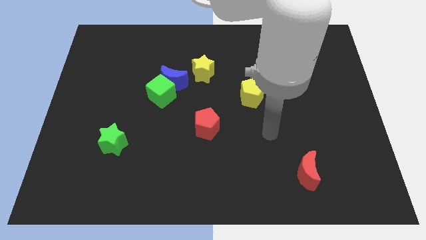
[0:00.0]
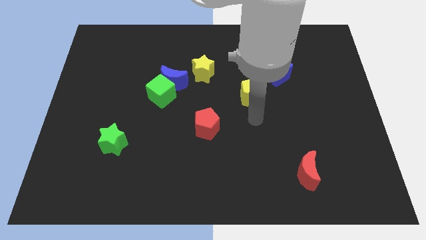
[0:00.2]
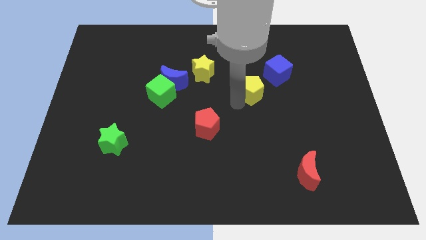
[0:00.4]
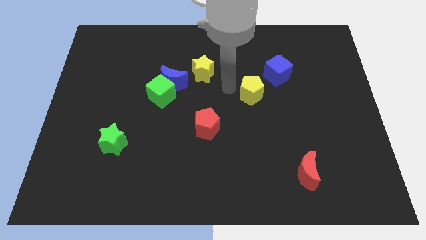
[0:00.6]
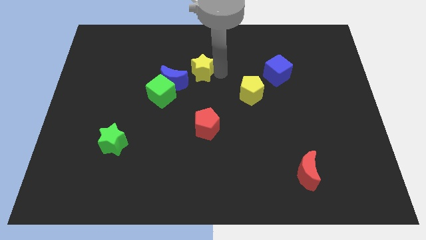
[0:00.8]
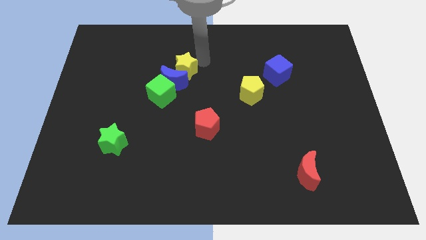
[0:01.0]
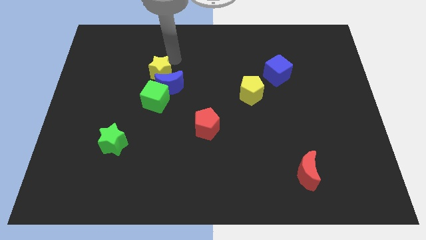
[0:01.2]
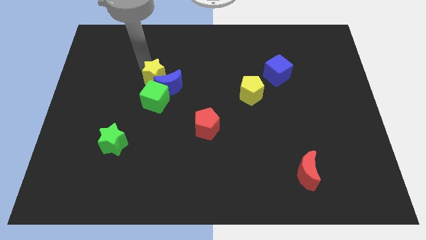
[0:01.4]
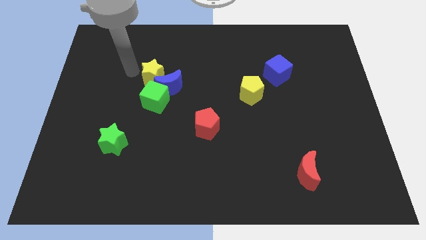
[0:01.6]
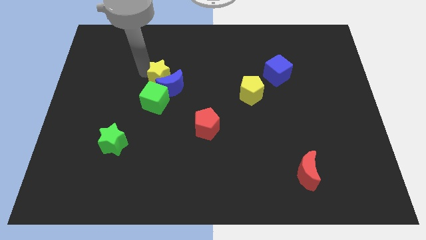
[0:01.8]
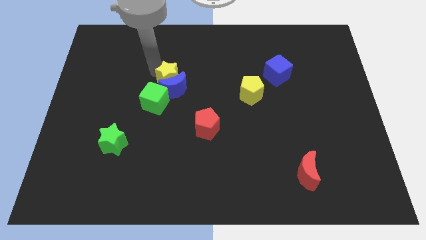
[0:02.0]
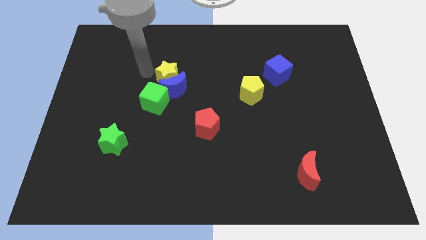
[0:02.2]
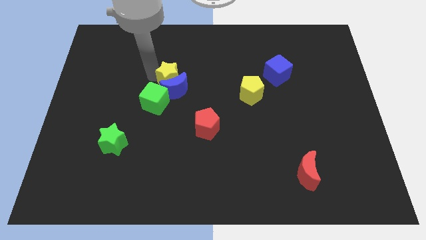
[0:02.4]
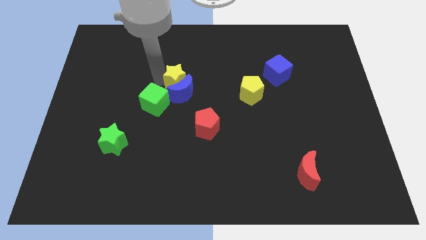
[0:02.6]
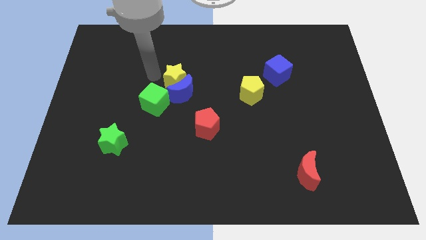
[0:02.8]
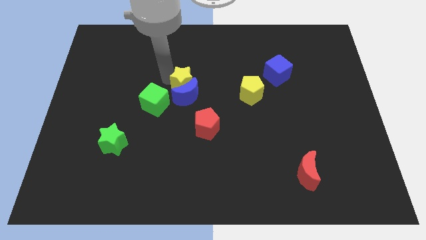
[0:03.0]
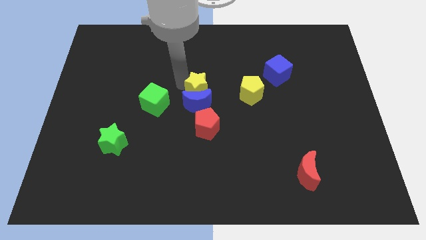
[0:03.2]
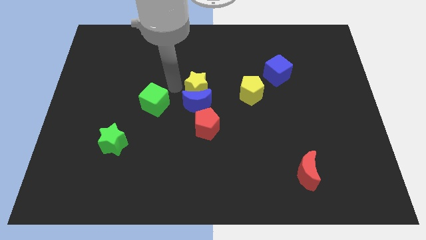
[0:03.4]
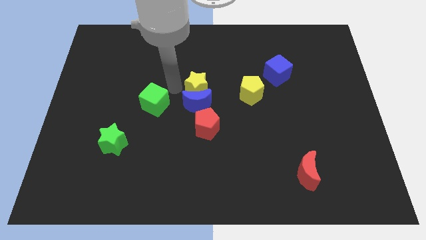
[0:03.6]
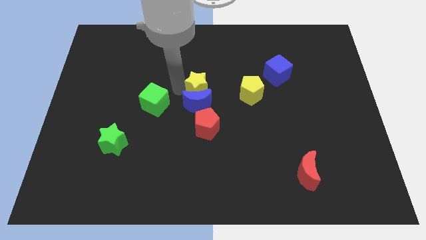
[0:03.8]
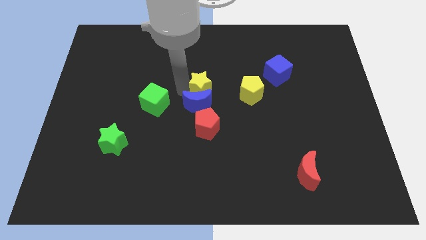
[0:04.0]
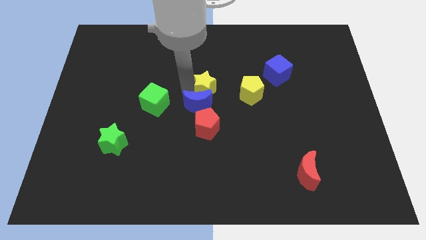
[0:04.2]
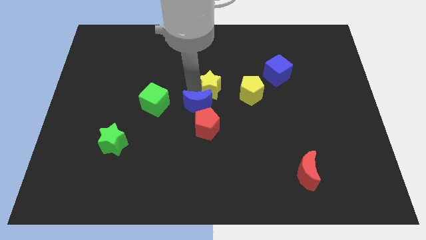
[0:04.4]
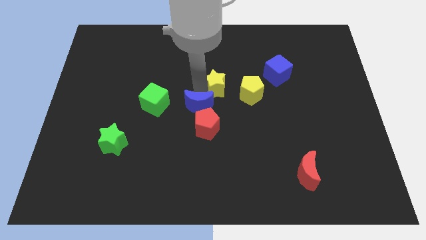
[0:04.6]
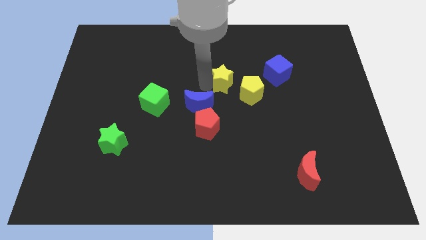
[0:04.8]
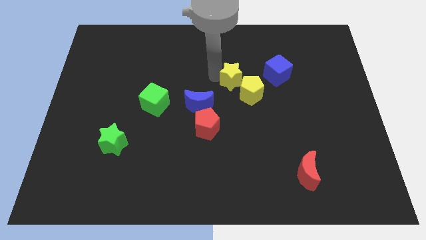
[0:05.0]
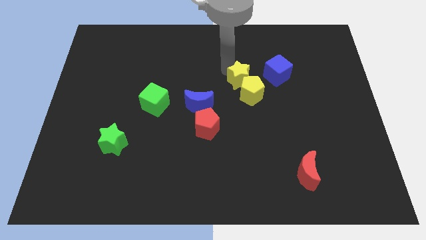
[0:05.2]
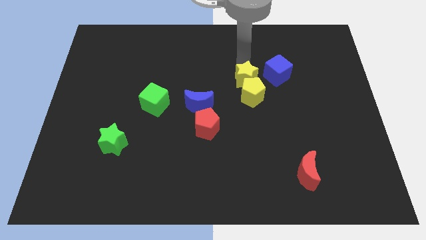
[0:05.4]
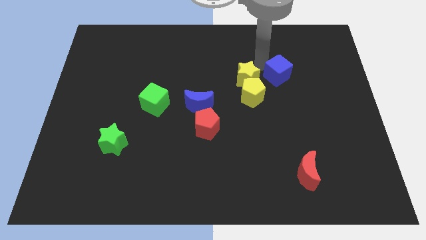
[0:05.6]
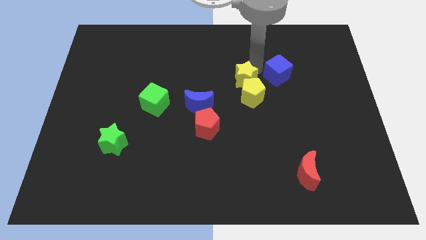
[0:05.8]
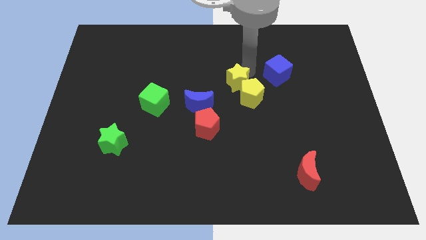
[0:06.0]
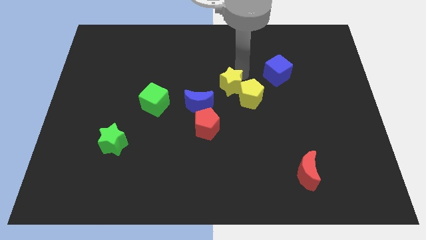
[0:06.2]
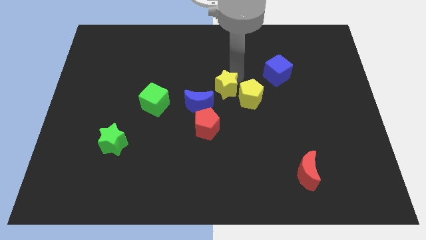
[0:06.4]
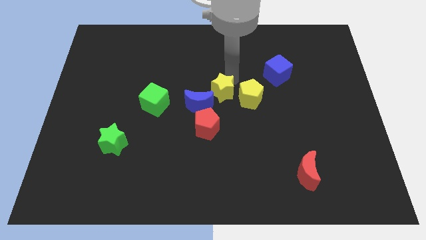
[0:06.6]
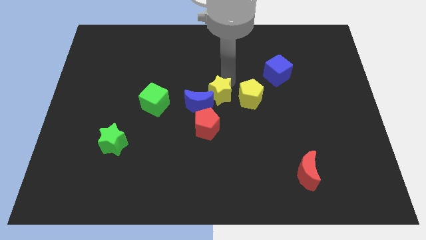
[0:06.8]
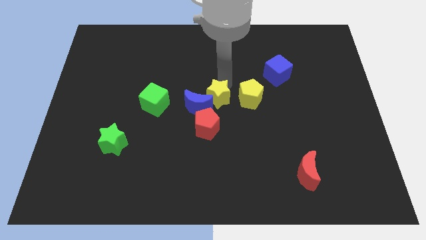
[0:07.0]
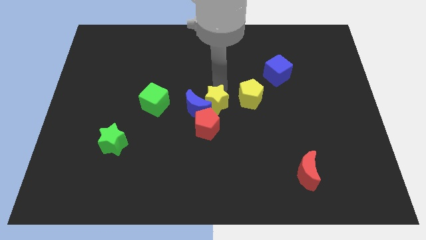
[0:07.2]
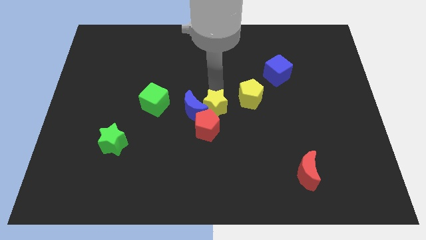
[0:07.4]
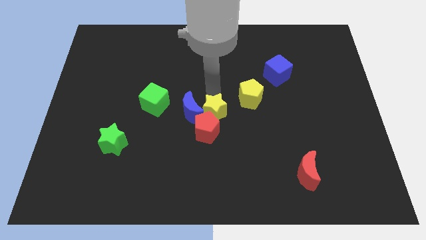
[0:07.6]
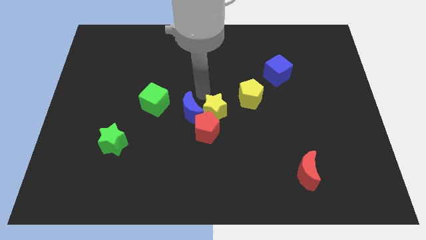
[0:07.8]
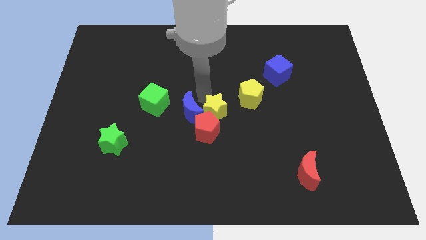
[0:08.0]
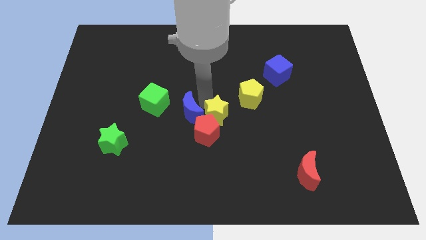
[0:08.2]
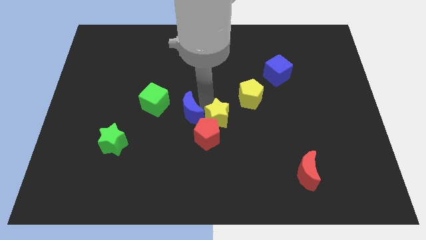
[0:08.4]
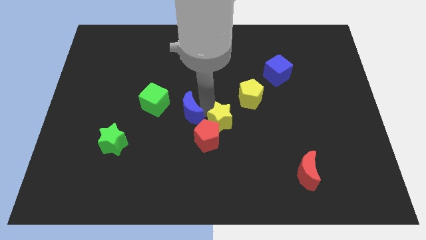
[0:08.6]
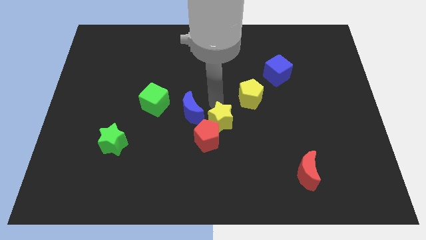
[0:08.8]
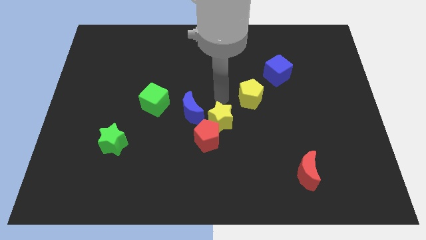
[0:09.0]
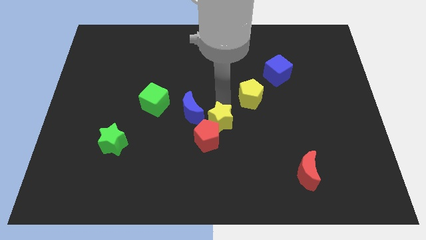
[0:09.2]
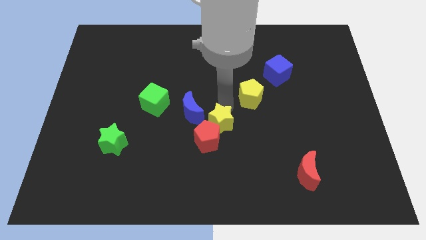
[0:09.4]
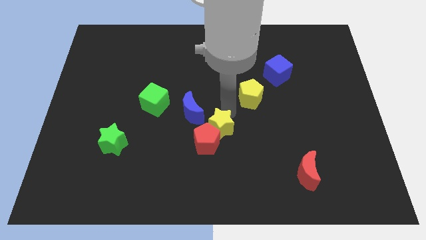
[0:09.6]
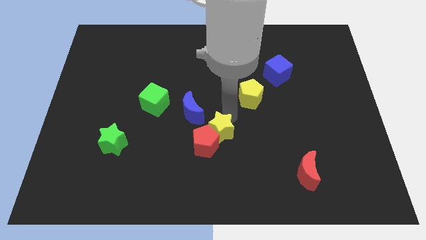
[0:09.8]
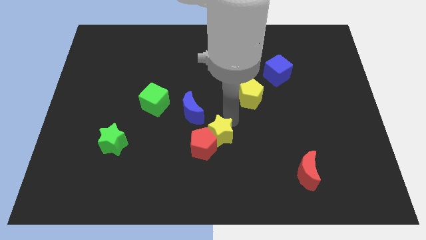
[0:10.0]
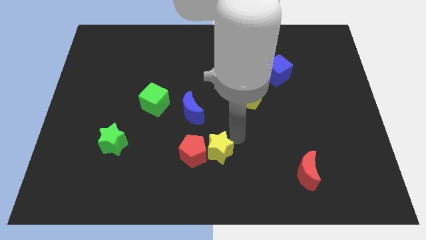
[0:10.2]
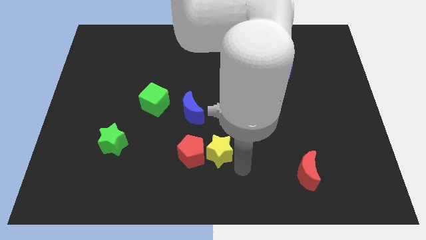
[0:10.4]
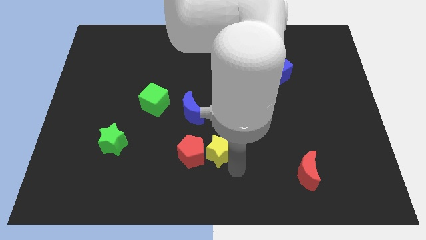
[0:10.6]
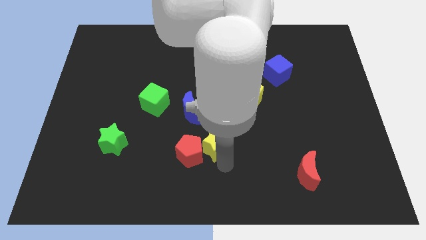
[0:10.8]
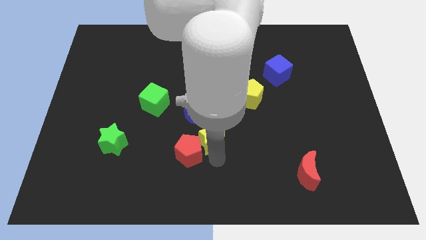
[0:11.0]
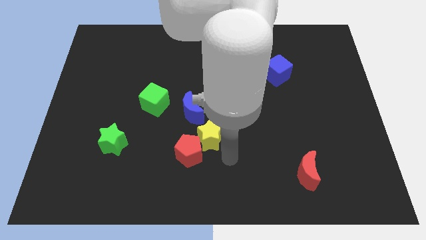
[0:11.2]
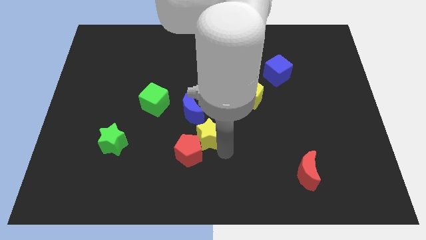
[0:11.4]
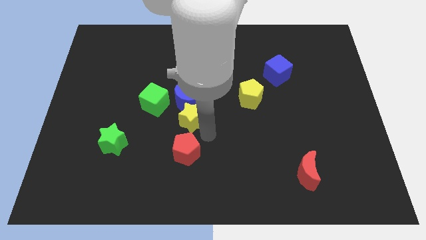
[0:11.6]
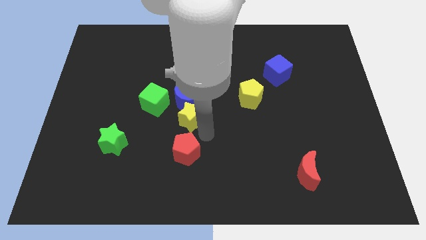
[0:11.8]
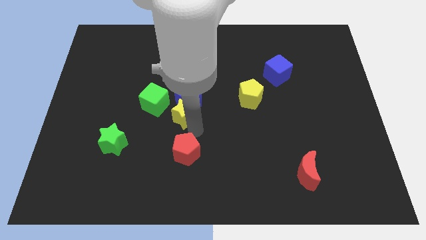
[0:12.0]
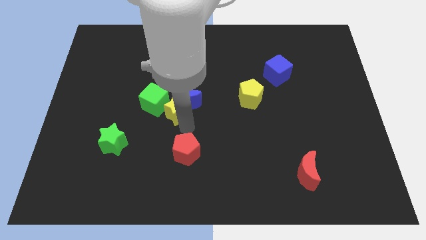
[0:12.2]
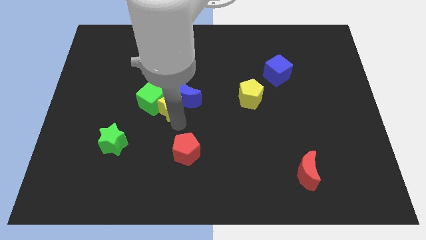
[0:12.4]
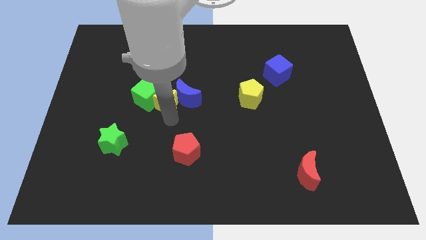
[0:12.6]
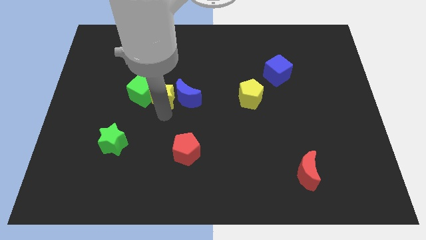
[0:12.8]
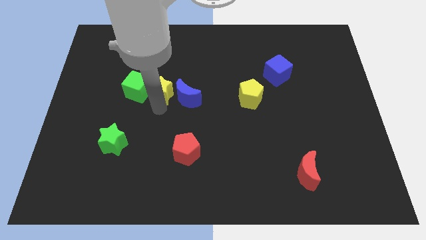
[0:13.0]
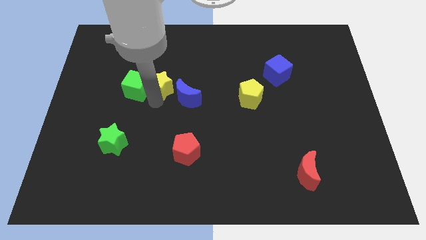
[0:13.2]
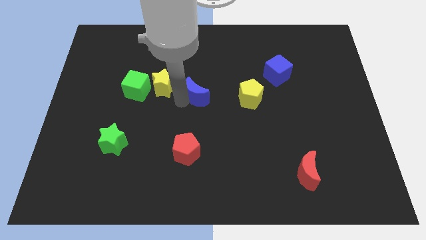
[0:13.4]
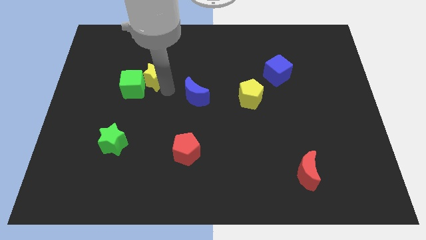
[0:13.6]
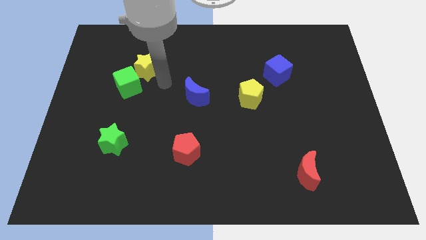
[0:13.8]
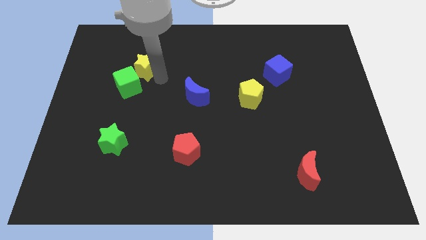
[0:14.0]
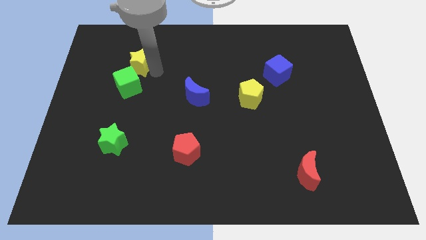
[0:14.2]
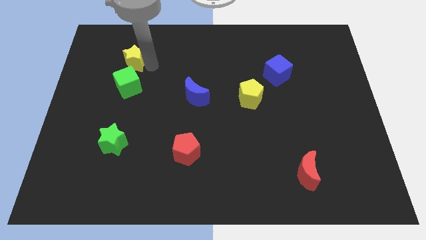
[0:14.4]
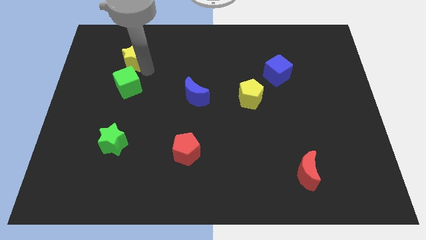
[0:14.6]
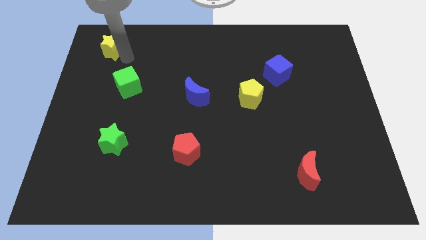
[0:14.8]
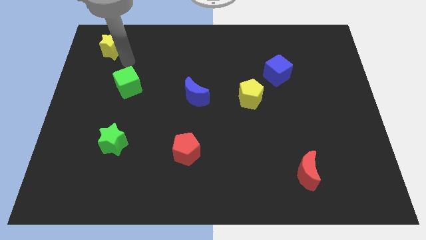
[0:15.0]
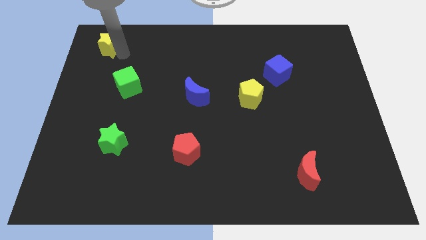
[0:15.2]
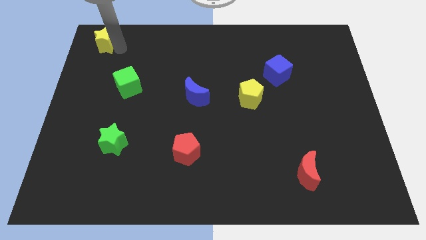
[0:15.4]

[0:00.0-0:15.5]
put the yellow star to the top left corner
